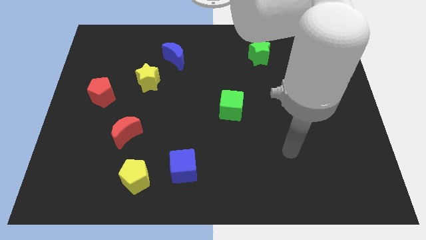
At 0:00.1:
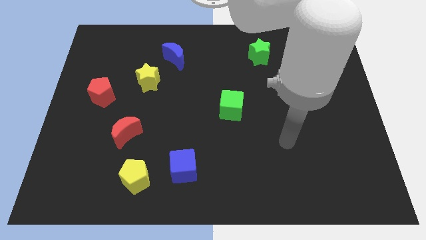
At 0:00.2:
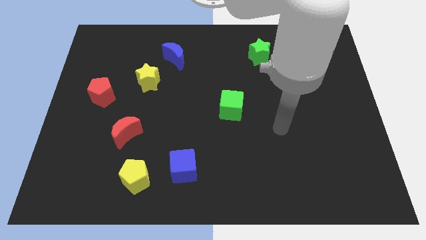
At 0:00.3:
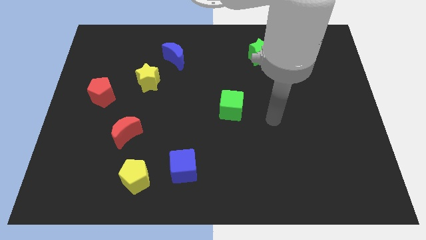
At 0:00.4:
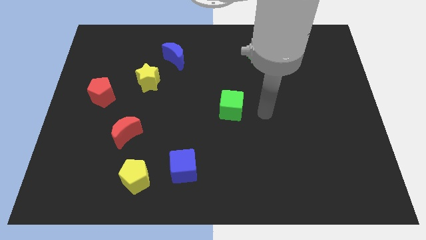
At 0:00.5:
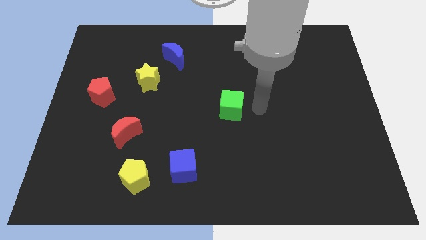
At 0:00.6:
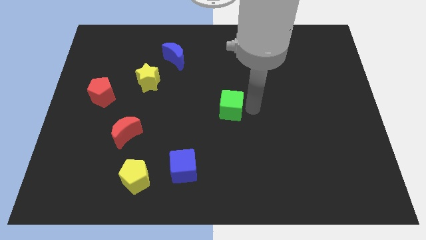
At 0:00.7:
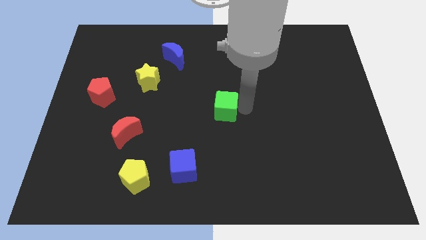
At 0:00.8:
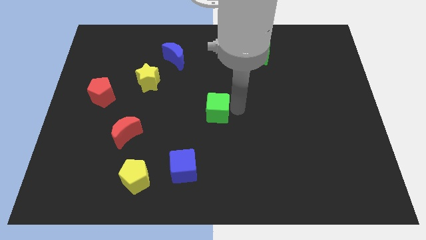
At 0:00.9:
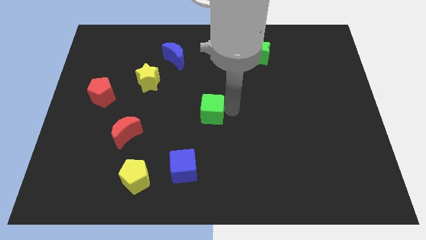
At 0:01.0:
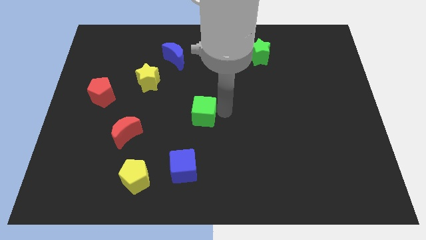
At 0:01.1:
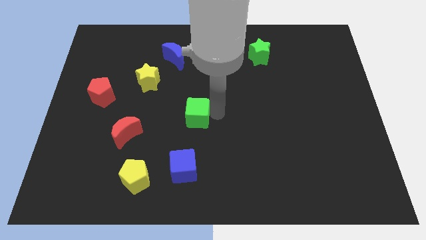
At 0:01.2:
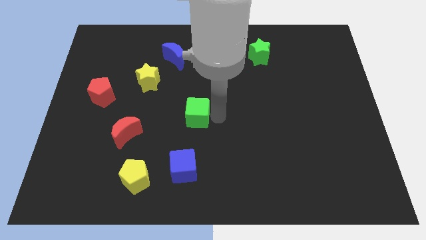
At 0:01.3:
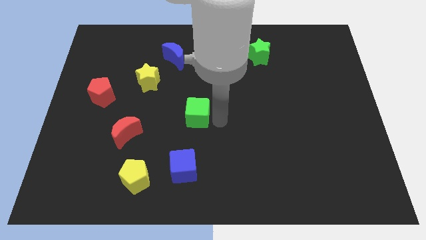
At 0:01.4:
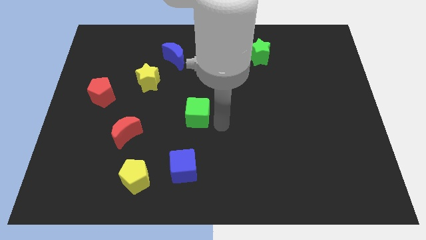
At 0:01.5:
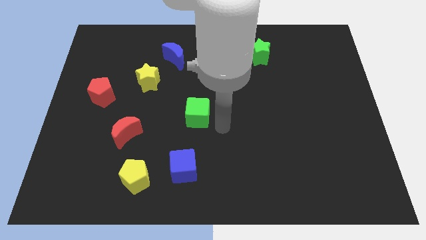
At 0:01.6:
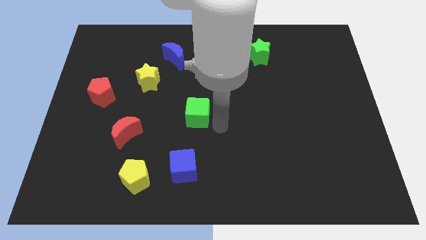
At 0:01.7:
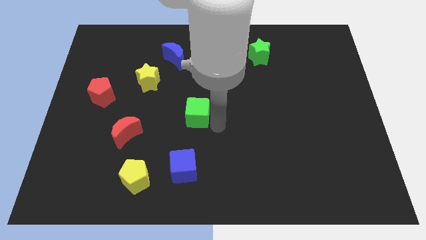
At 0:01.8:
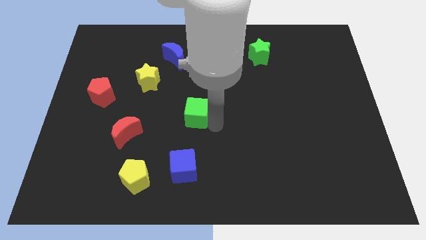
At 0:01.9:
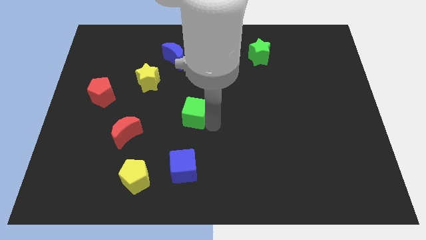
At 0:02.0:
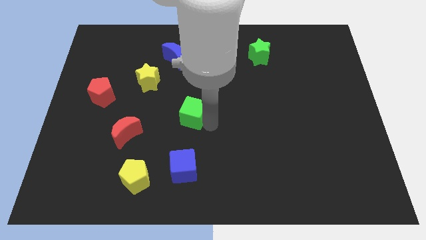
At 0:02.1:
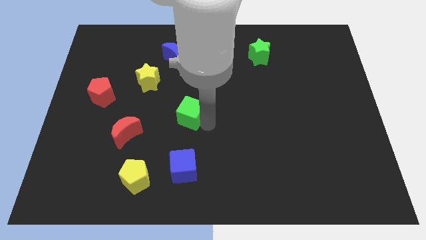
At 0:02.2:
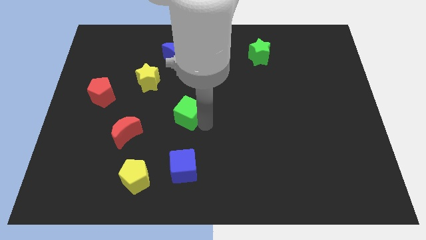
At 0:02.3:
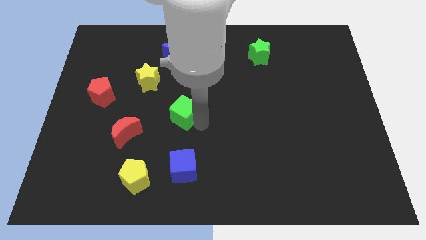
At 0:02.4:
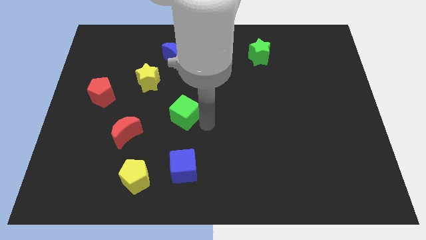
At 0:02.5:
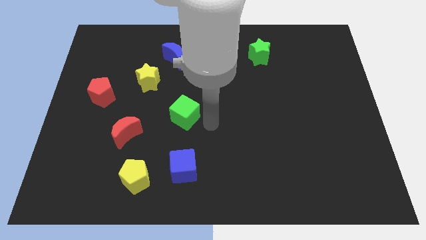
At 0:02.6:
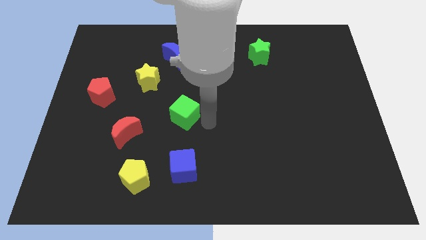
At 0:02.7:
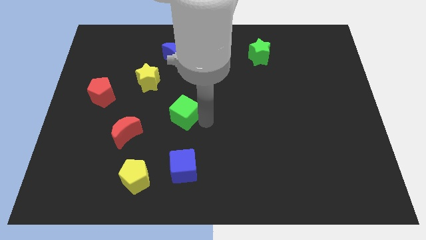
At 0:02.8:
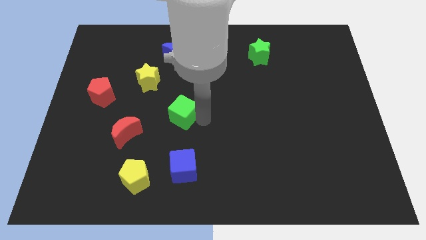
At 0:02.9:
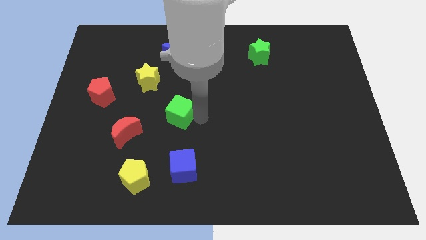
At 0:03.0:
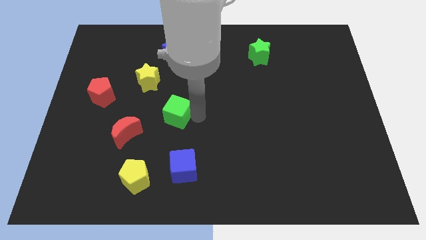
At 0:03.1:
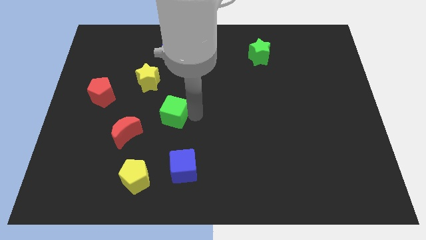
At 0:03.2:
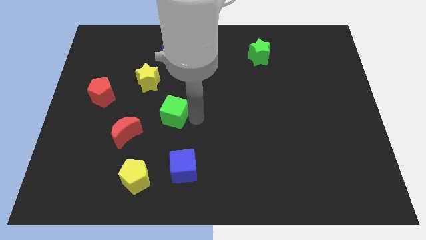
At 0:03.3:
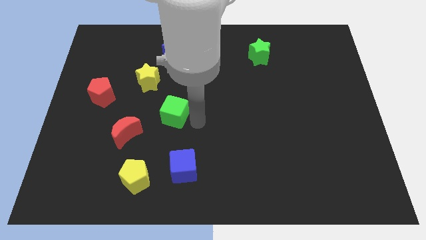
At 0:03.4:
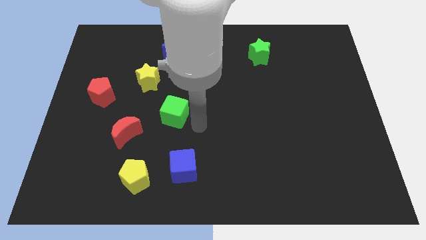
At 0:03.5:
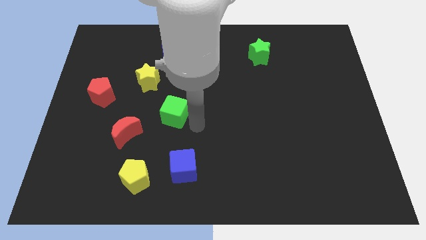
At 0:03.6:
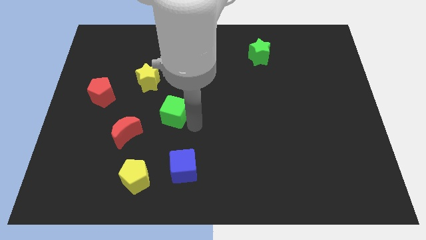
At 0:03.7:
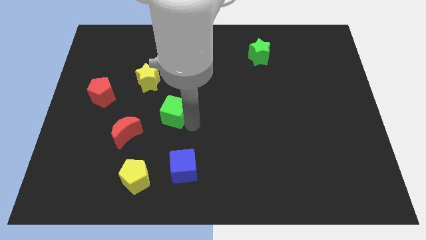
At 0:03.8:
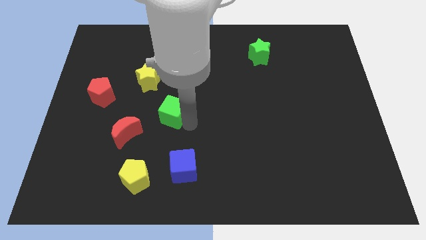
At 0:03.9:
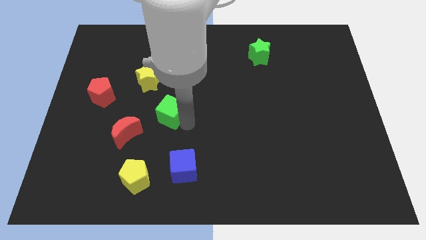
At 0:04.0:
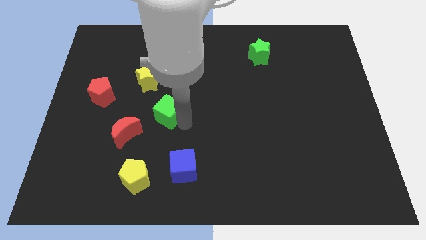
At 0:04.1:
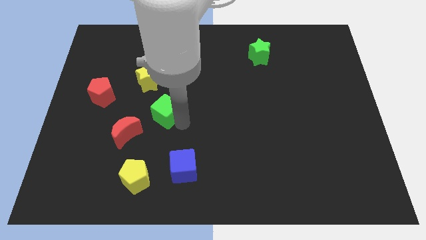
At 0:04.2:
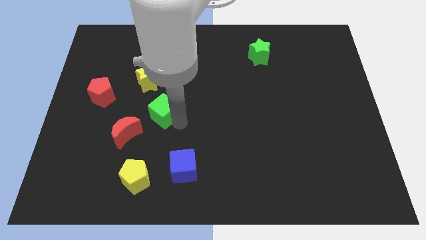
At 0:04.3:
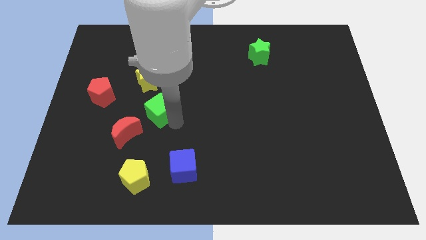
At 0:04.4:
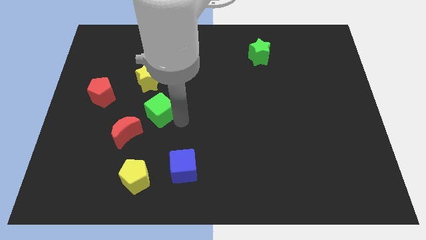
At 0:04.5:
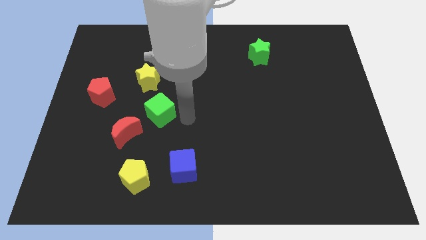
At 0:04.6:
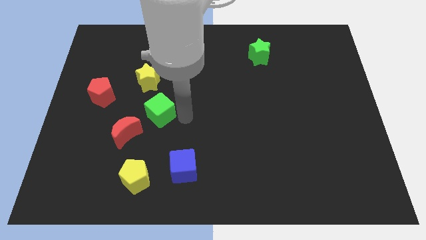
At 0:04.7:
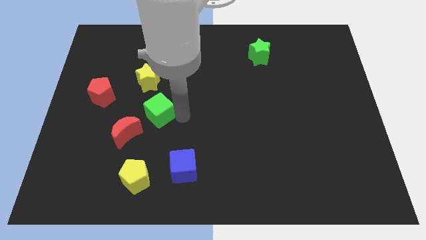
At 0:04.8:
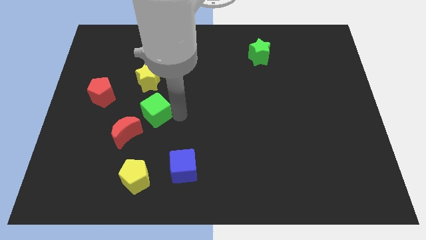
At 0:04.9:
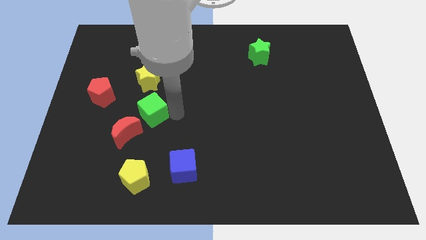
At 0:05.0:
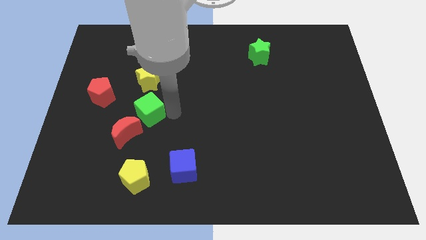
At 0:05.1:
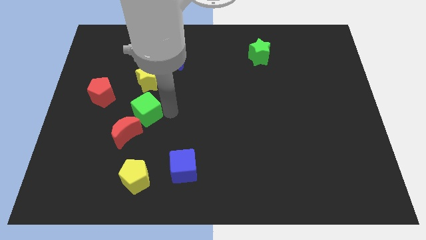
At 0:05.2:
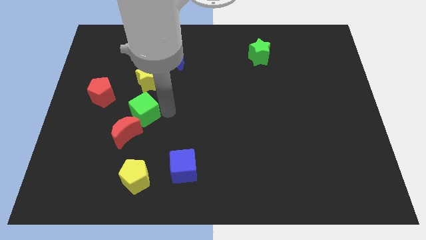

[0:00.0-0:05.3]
slide the green cube left

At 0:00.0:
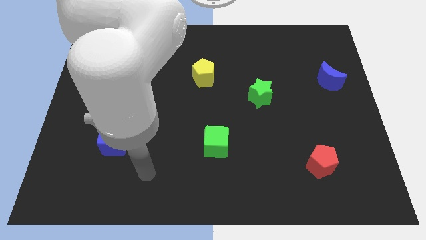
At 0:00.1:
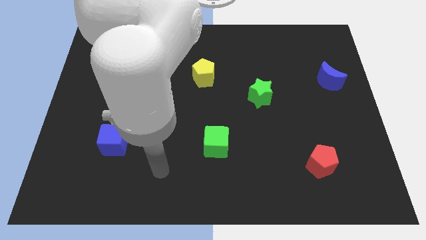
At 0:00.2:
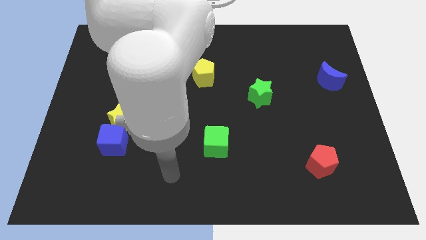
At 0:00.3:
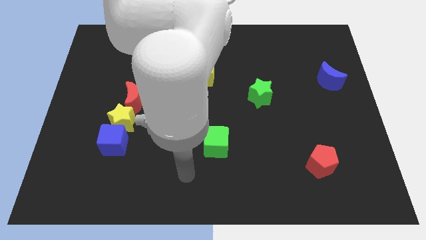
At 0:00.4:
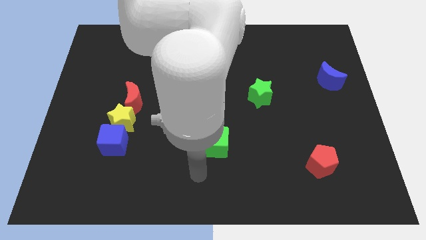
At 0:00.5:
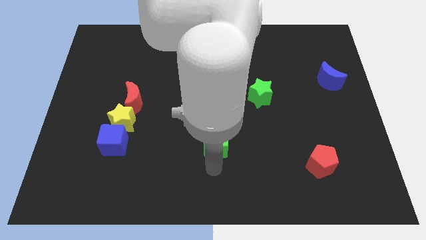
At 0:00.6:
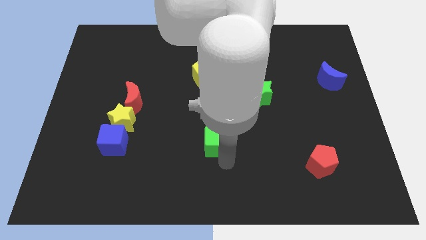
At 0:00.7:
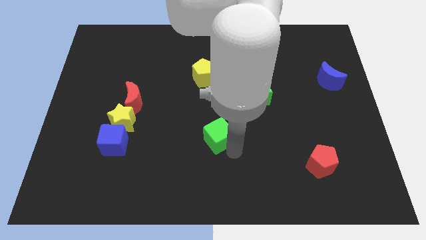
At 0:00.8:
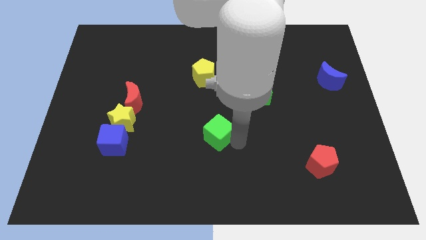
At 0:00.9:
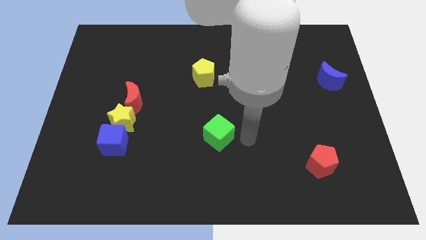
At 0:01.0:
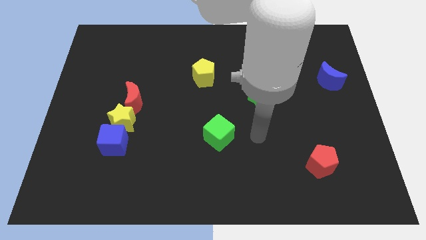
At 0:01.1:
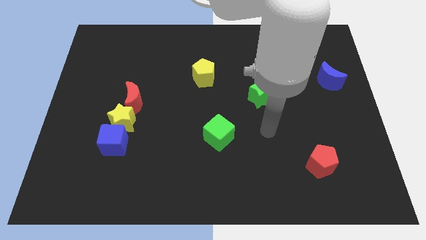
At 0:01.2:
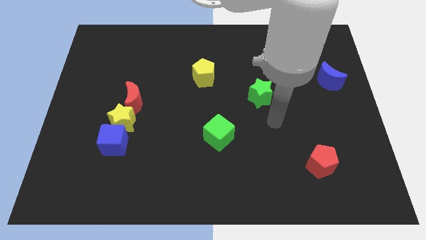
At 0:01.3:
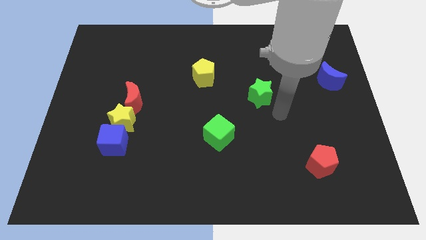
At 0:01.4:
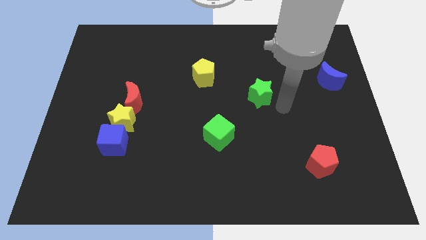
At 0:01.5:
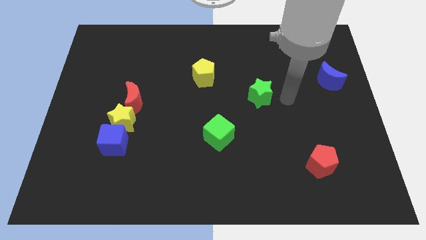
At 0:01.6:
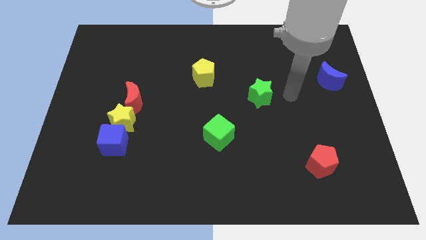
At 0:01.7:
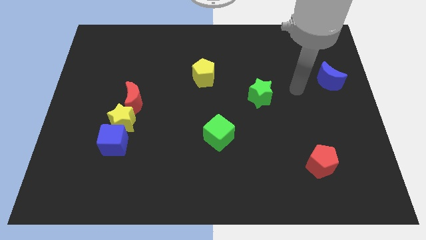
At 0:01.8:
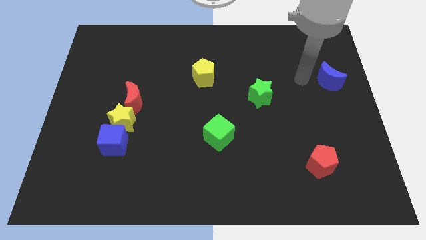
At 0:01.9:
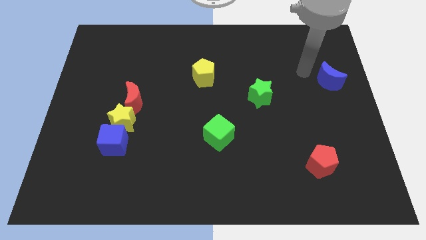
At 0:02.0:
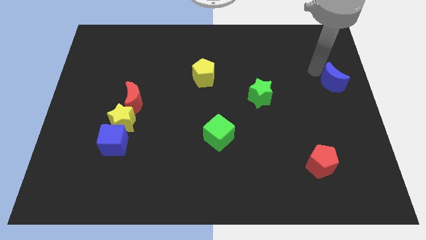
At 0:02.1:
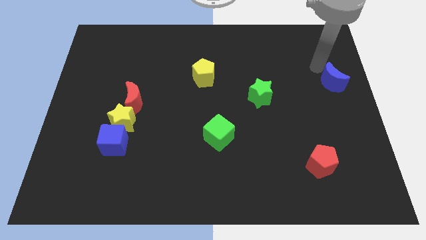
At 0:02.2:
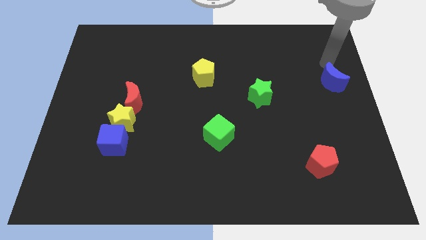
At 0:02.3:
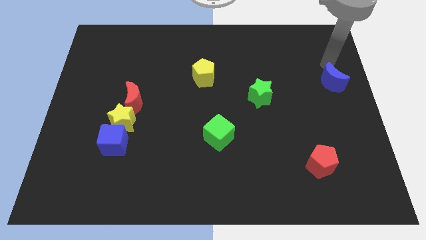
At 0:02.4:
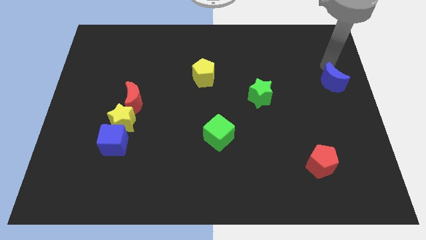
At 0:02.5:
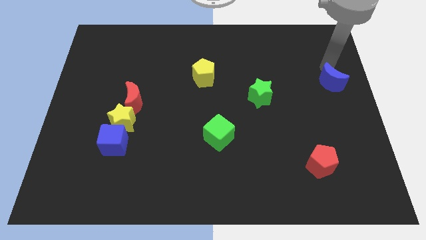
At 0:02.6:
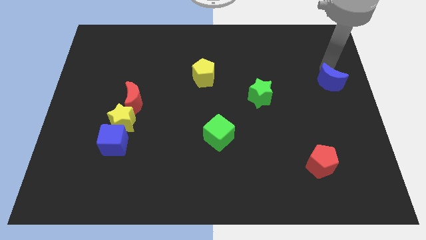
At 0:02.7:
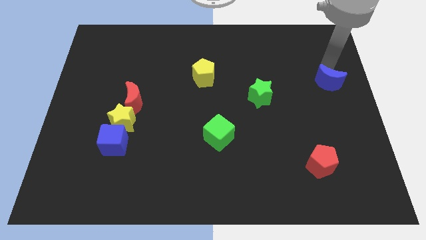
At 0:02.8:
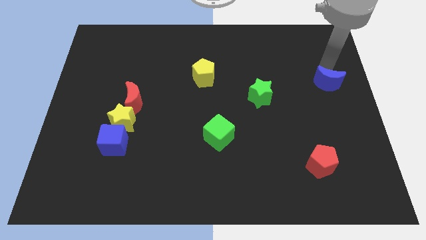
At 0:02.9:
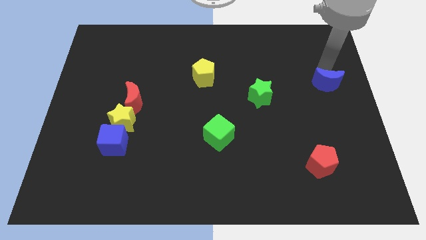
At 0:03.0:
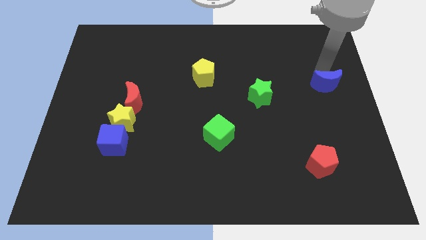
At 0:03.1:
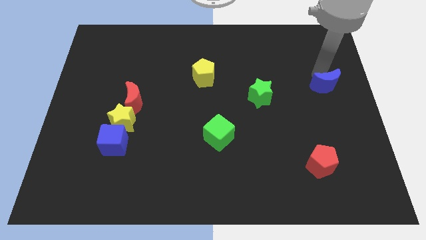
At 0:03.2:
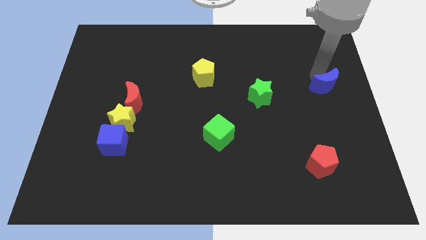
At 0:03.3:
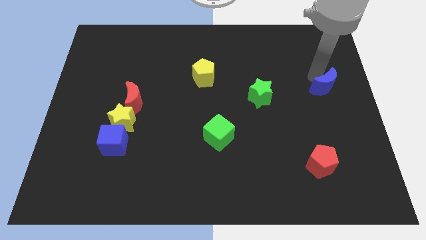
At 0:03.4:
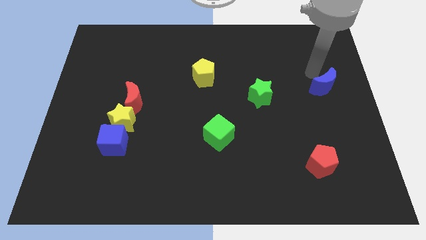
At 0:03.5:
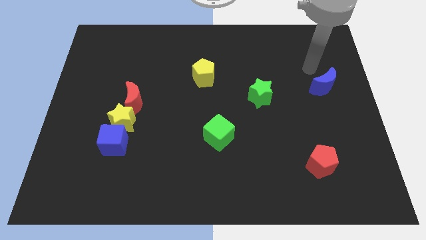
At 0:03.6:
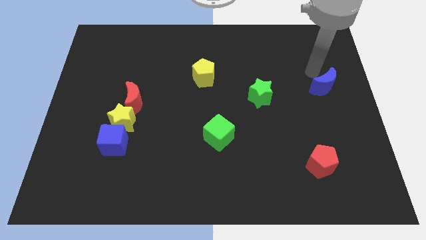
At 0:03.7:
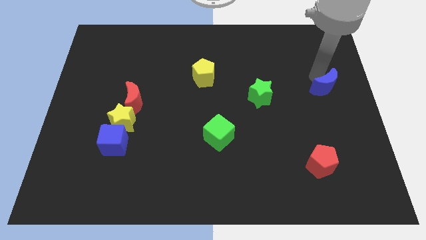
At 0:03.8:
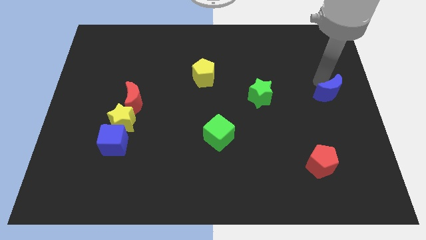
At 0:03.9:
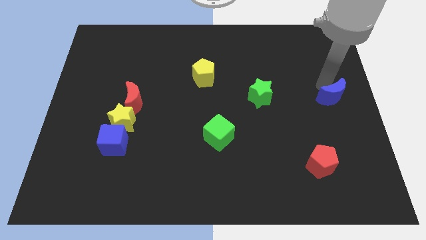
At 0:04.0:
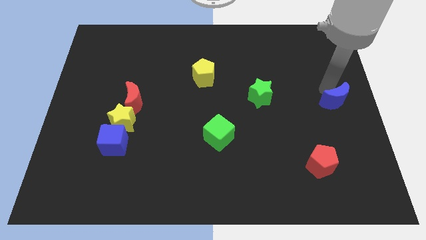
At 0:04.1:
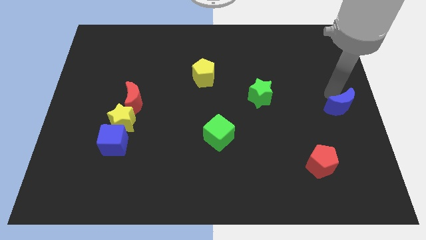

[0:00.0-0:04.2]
move the blue moon downwards somewhat
